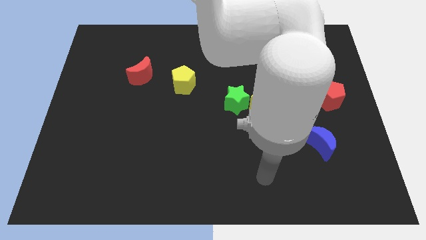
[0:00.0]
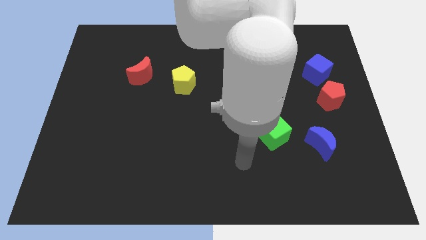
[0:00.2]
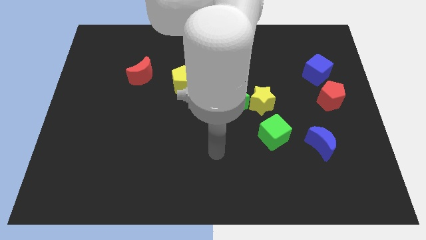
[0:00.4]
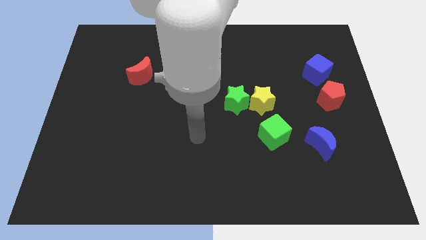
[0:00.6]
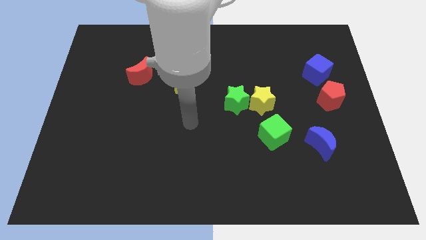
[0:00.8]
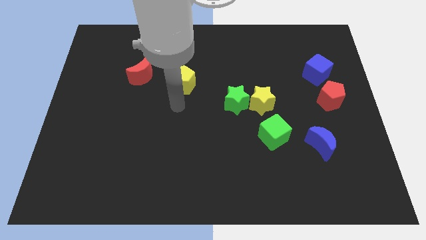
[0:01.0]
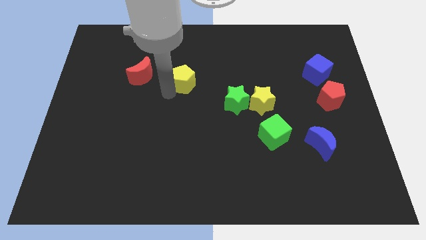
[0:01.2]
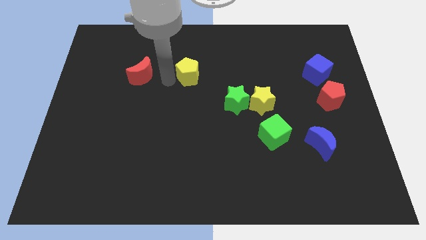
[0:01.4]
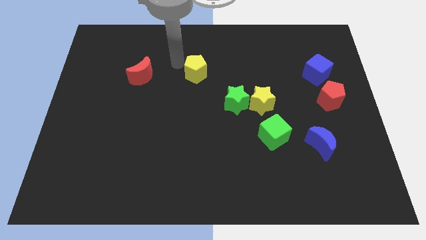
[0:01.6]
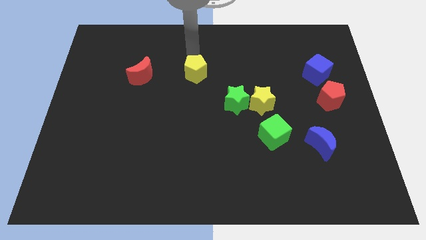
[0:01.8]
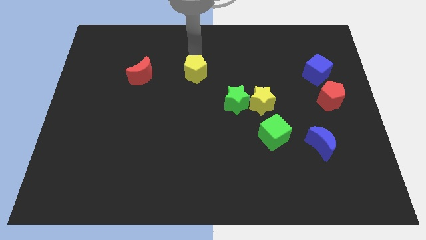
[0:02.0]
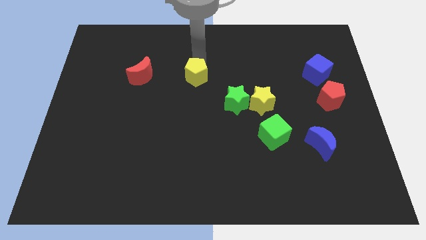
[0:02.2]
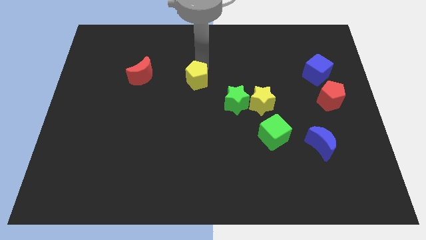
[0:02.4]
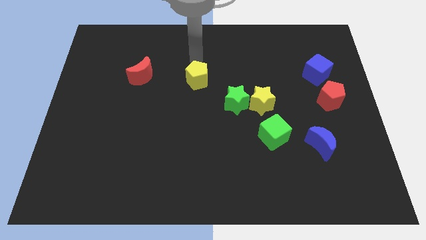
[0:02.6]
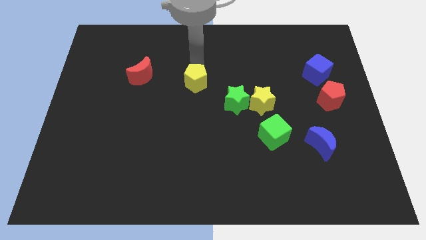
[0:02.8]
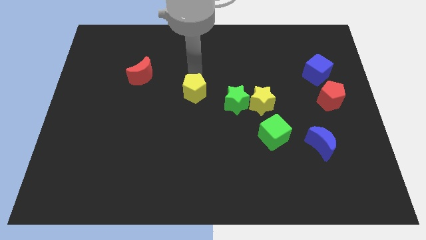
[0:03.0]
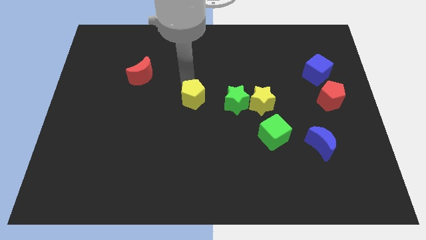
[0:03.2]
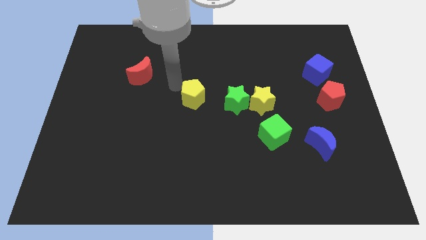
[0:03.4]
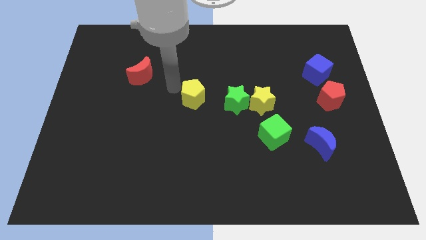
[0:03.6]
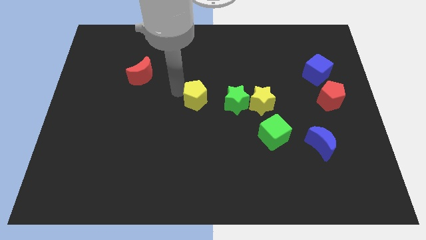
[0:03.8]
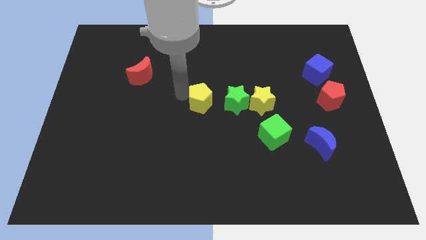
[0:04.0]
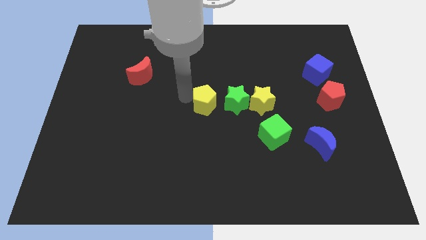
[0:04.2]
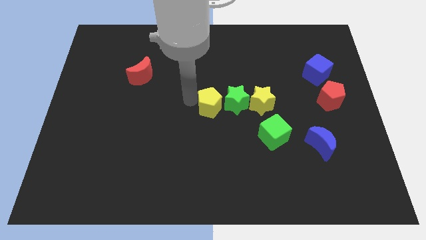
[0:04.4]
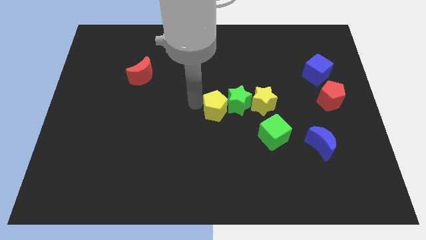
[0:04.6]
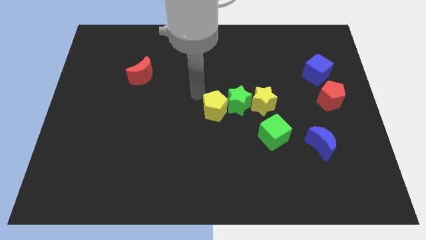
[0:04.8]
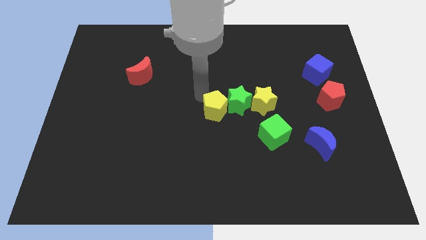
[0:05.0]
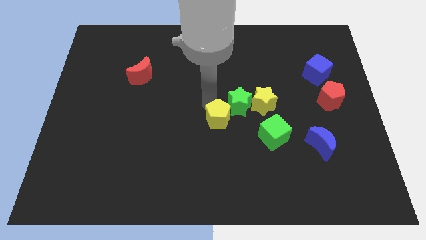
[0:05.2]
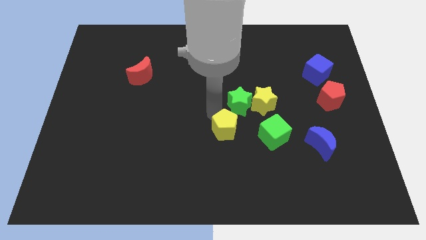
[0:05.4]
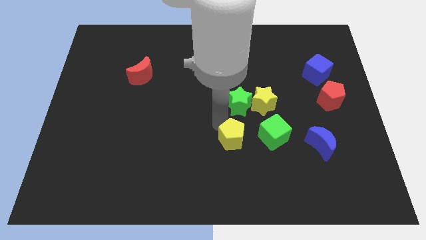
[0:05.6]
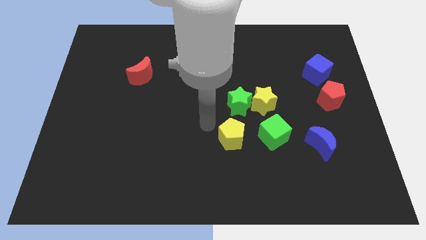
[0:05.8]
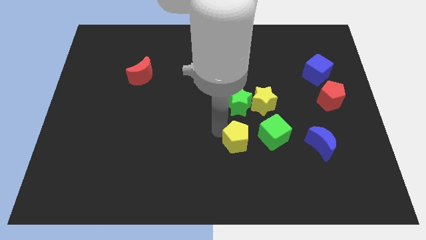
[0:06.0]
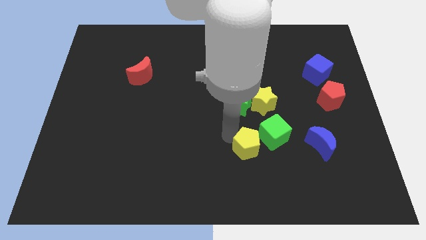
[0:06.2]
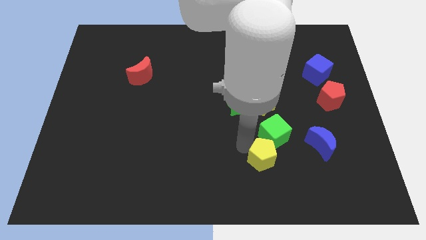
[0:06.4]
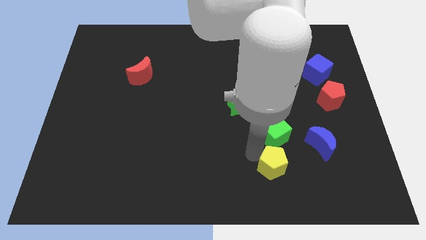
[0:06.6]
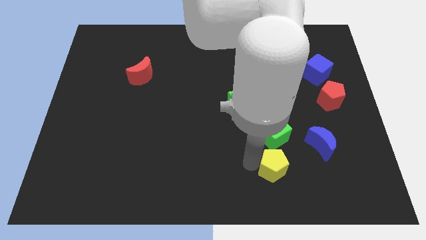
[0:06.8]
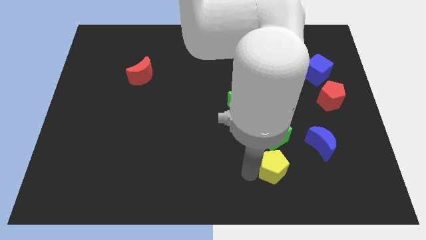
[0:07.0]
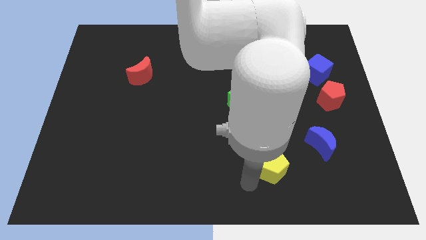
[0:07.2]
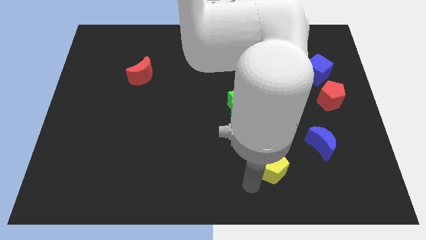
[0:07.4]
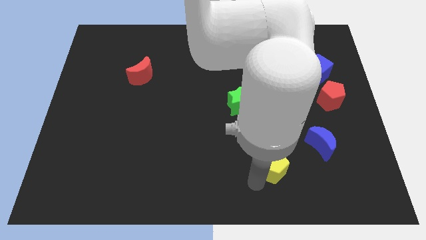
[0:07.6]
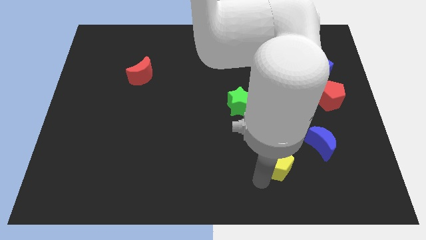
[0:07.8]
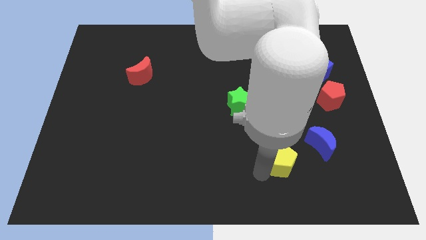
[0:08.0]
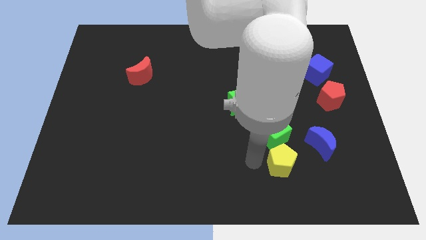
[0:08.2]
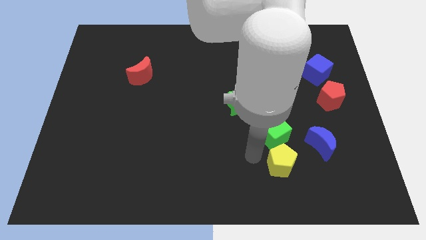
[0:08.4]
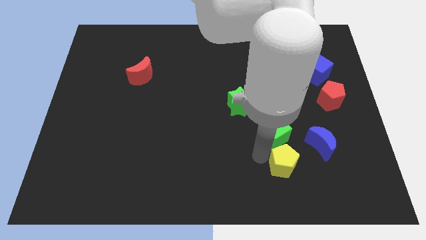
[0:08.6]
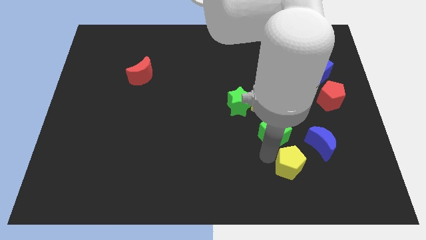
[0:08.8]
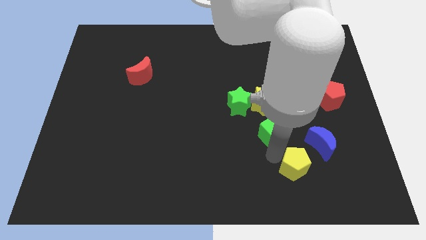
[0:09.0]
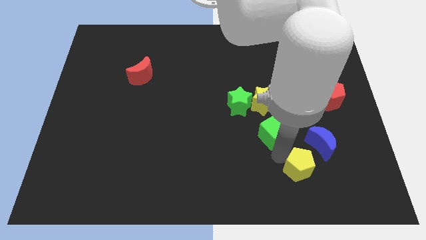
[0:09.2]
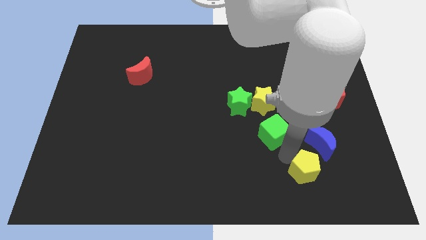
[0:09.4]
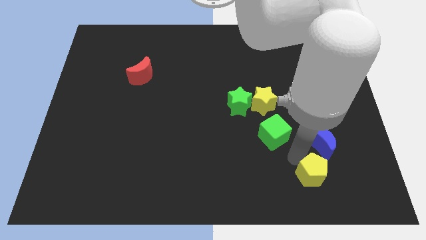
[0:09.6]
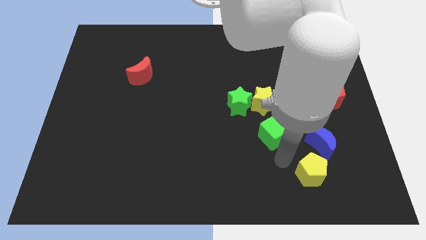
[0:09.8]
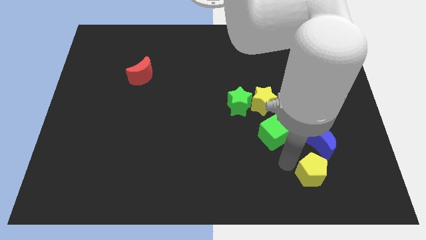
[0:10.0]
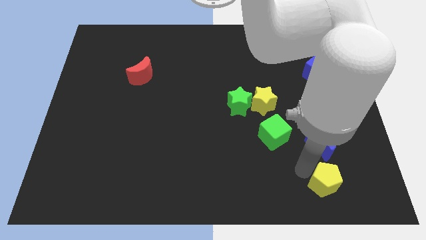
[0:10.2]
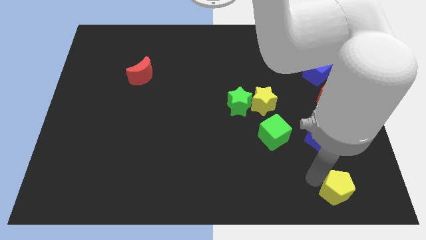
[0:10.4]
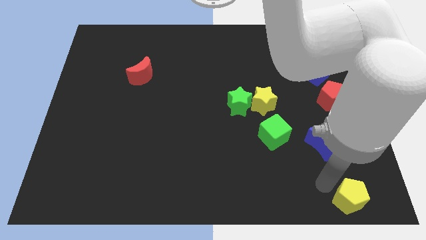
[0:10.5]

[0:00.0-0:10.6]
slide the yellow pentagon to the bottom right corner

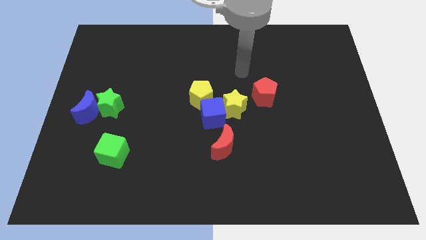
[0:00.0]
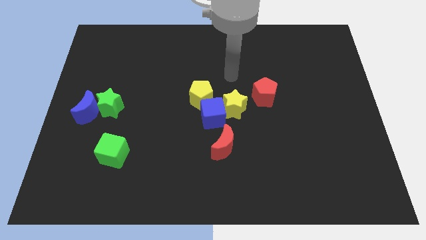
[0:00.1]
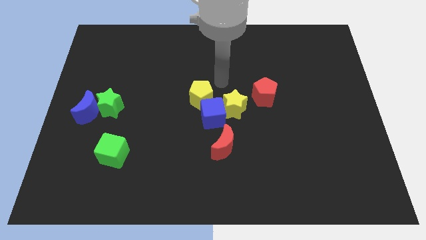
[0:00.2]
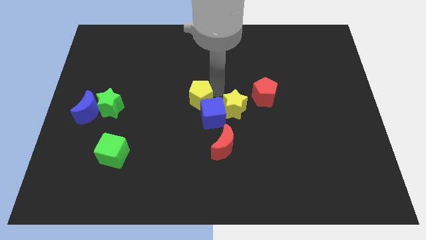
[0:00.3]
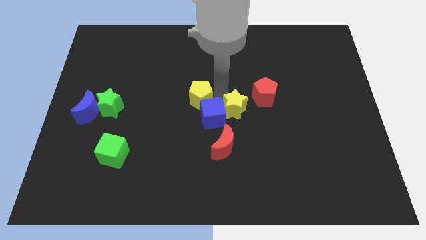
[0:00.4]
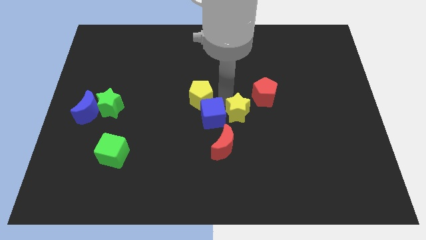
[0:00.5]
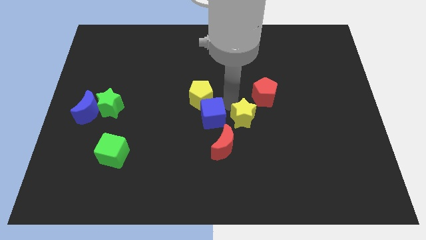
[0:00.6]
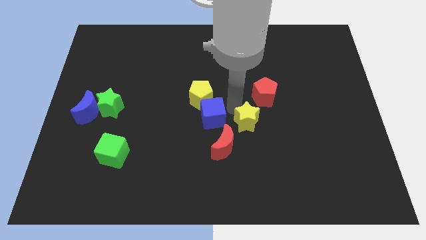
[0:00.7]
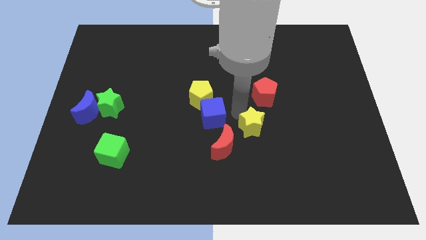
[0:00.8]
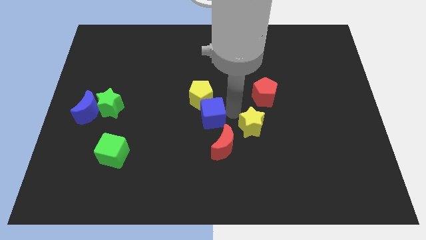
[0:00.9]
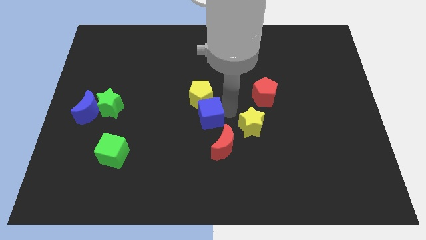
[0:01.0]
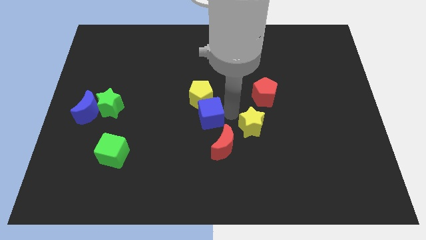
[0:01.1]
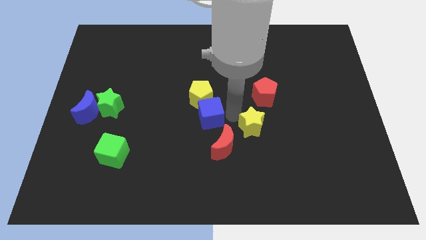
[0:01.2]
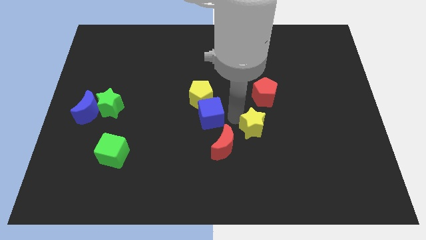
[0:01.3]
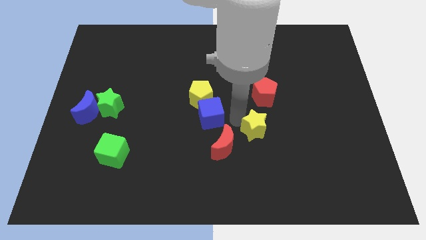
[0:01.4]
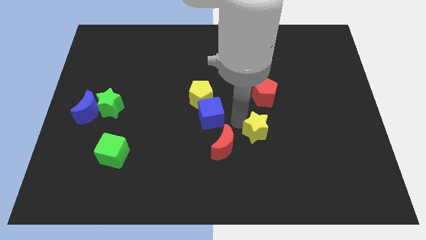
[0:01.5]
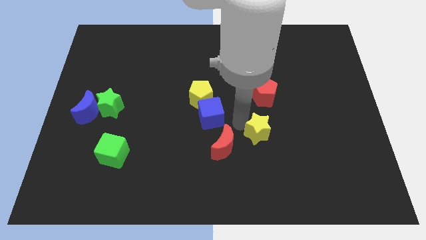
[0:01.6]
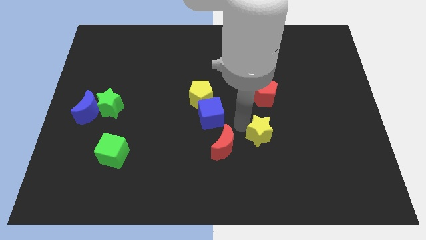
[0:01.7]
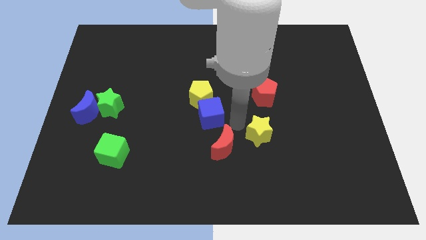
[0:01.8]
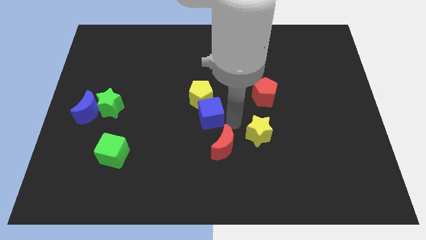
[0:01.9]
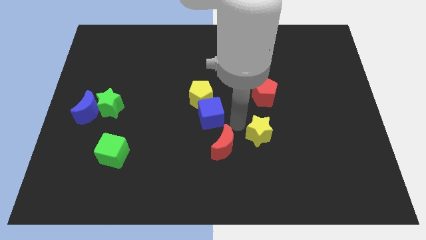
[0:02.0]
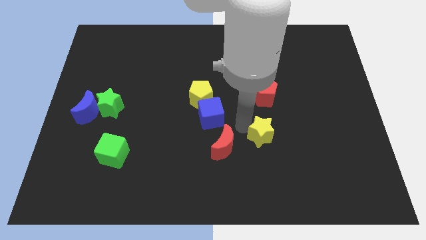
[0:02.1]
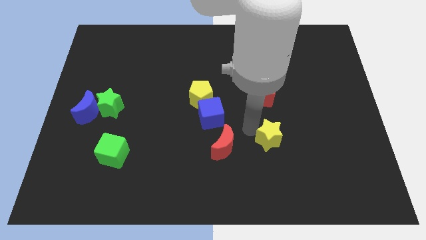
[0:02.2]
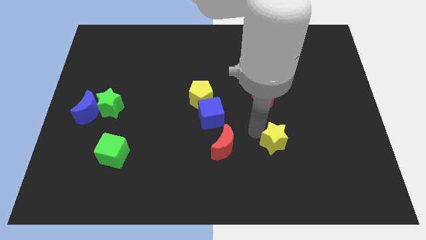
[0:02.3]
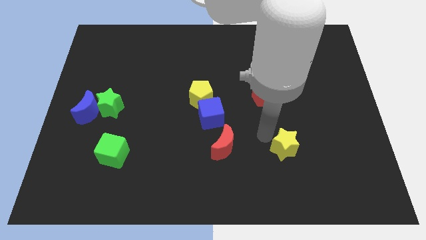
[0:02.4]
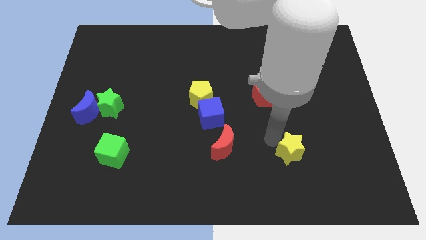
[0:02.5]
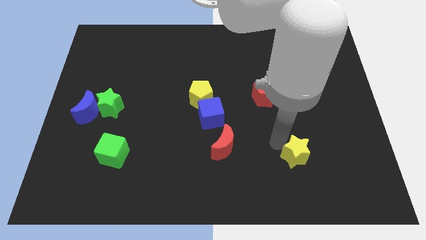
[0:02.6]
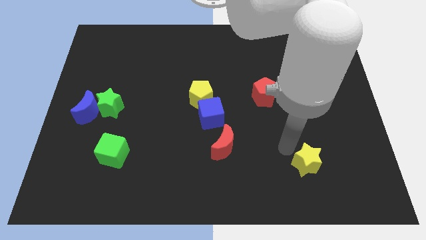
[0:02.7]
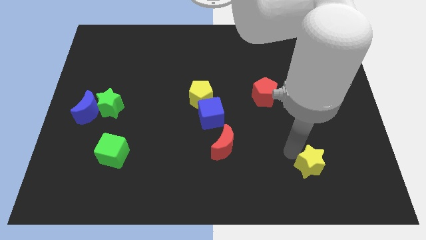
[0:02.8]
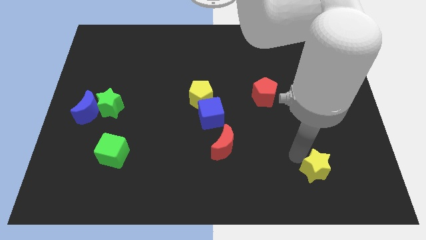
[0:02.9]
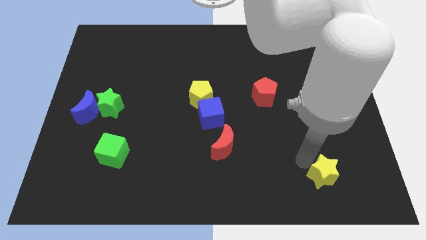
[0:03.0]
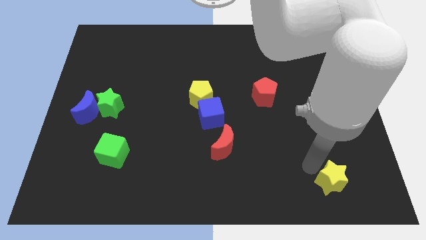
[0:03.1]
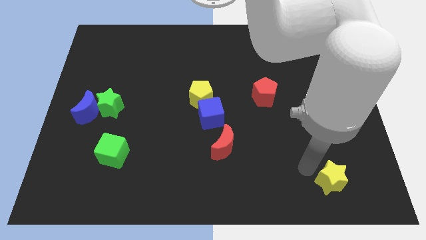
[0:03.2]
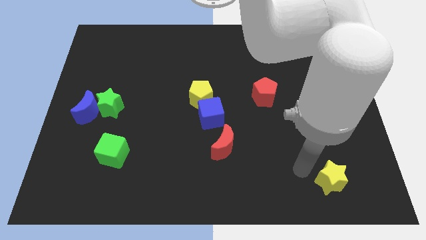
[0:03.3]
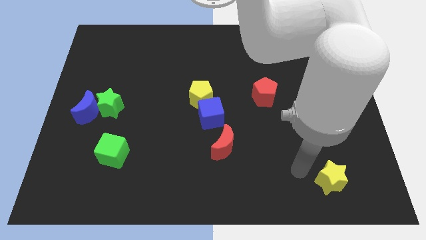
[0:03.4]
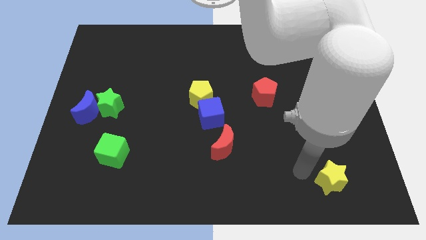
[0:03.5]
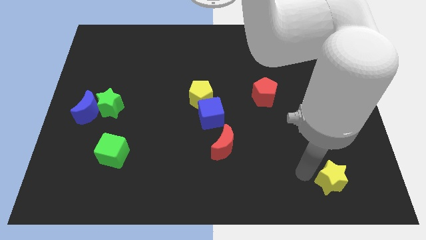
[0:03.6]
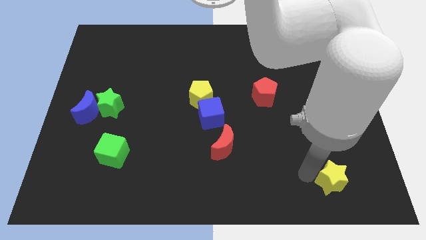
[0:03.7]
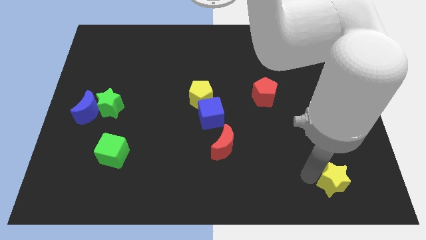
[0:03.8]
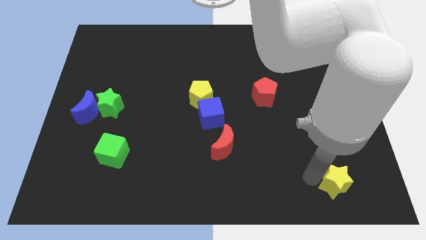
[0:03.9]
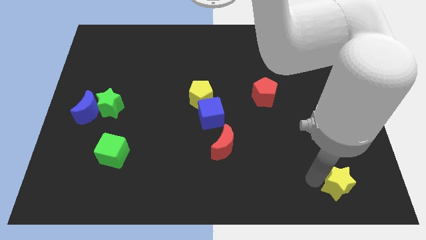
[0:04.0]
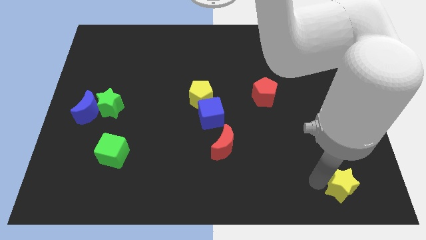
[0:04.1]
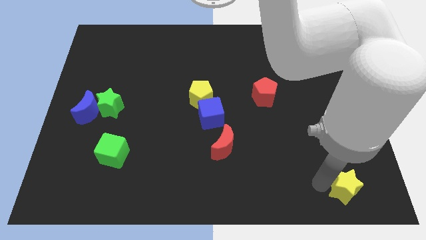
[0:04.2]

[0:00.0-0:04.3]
put the yellow star to the lower right corner
